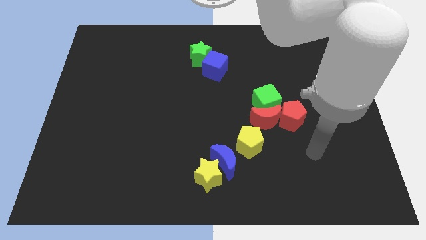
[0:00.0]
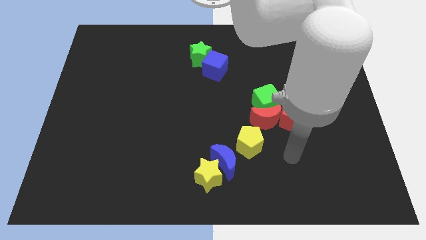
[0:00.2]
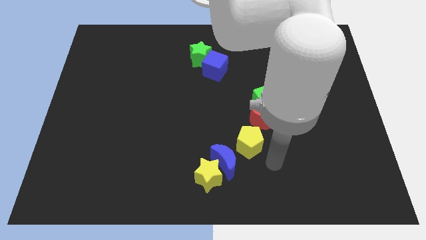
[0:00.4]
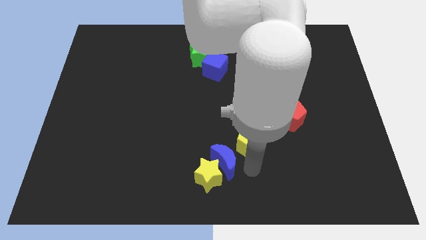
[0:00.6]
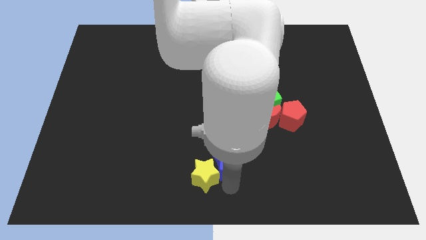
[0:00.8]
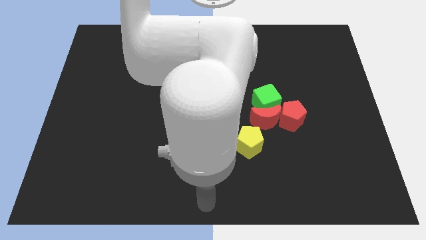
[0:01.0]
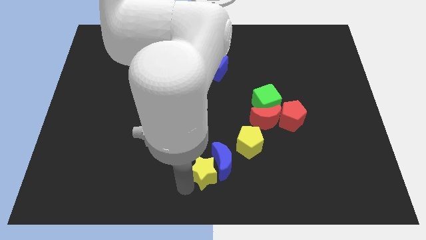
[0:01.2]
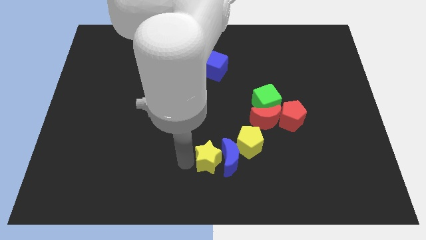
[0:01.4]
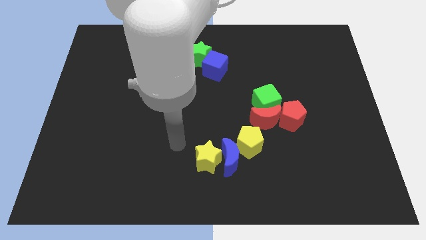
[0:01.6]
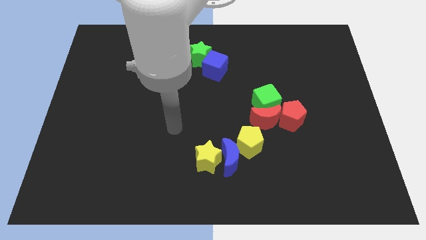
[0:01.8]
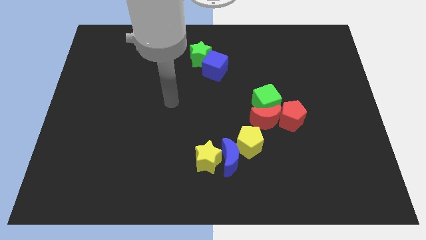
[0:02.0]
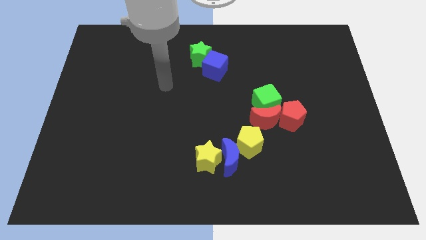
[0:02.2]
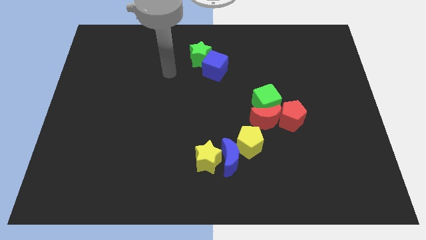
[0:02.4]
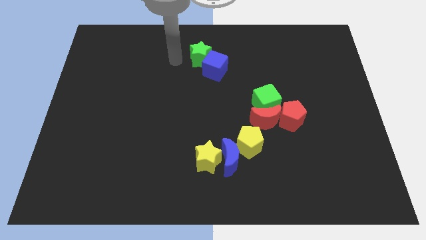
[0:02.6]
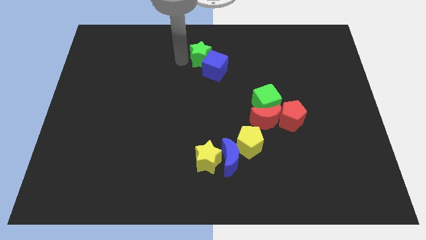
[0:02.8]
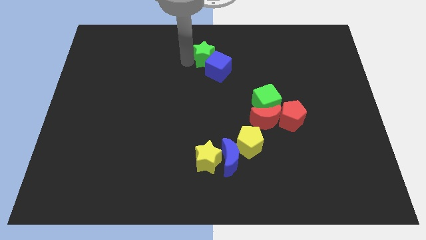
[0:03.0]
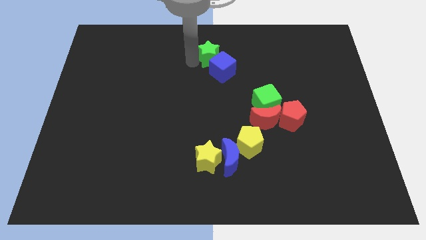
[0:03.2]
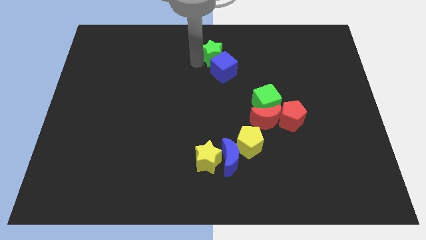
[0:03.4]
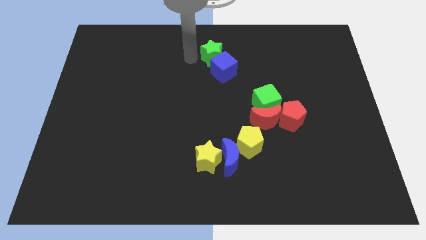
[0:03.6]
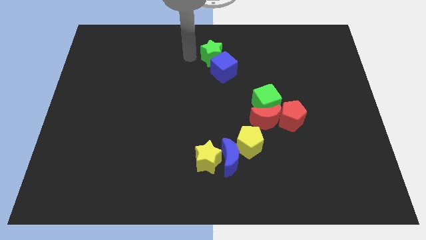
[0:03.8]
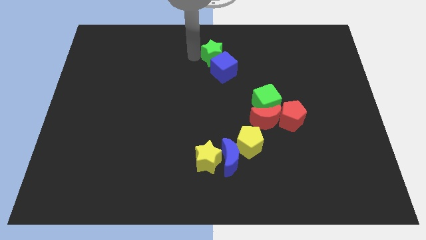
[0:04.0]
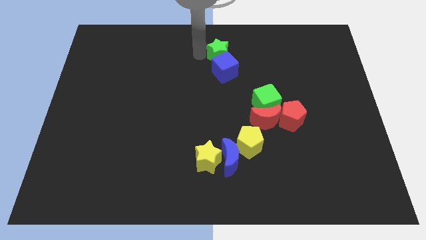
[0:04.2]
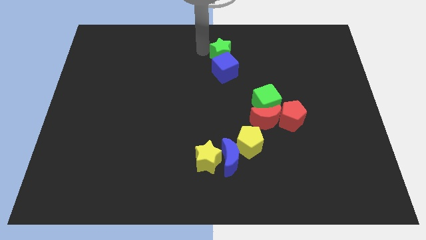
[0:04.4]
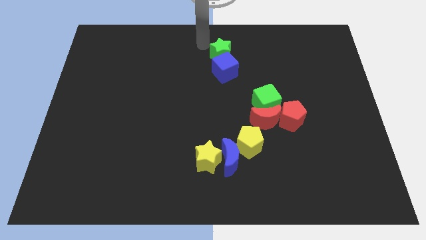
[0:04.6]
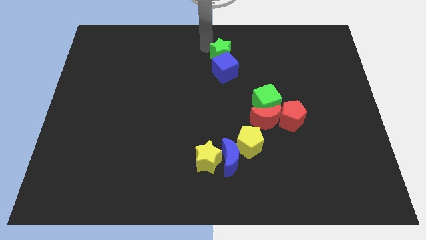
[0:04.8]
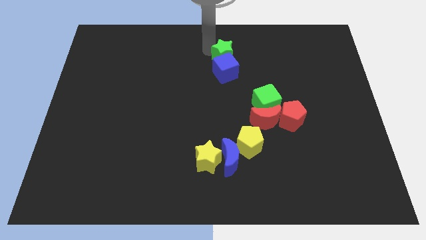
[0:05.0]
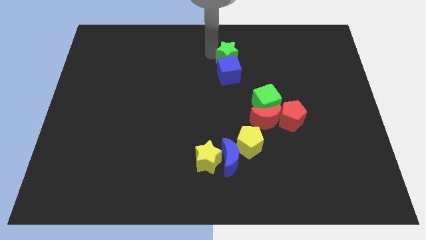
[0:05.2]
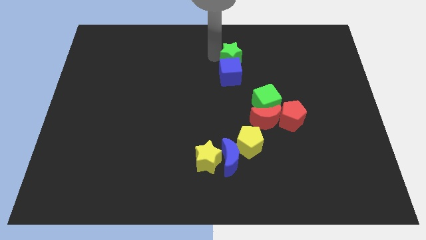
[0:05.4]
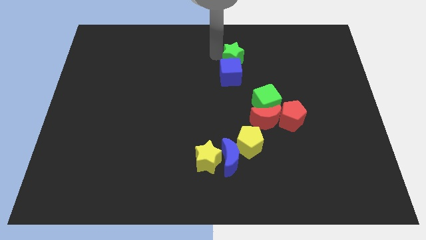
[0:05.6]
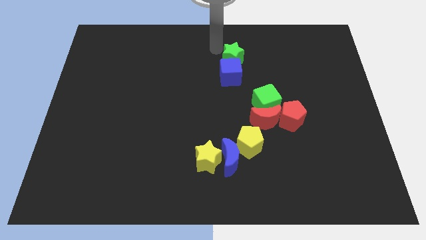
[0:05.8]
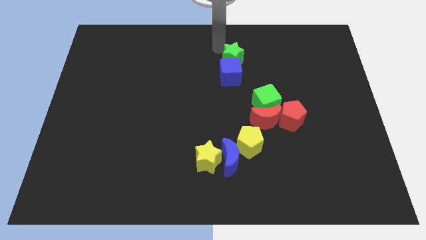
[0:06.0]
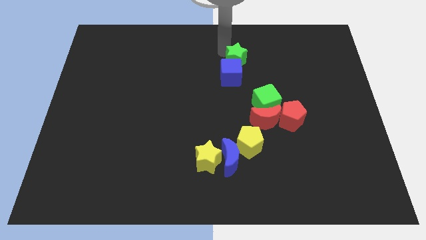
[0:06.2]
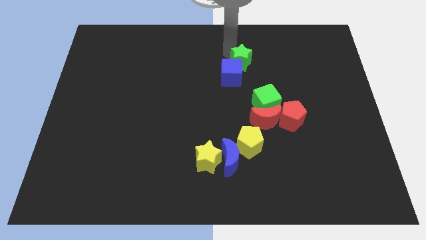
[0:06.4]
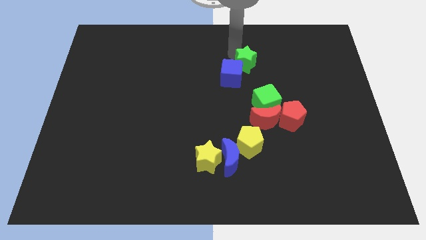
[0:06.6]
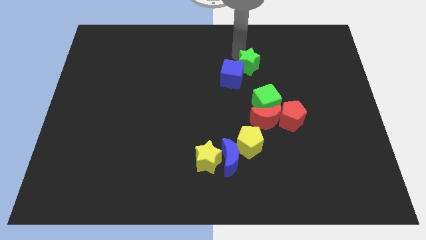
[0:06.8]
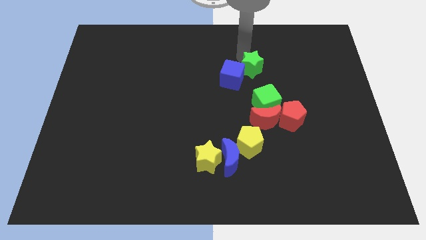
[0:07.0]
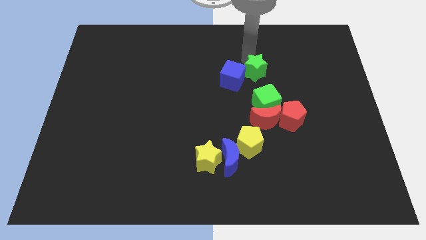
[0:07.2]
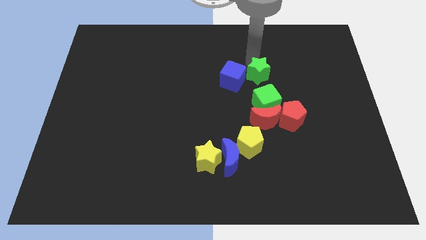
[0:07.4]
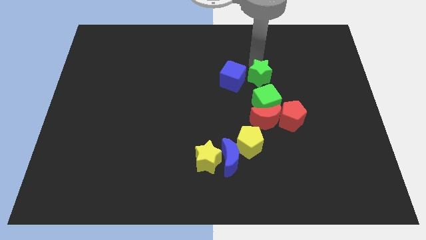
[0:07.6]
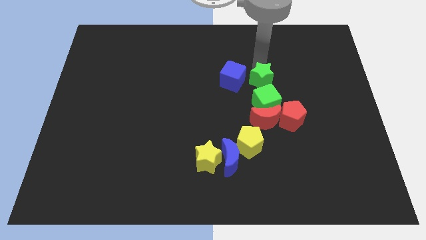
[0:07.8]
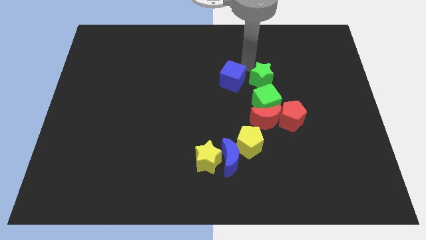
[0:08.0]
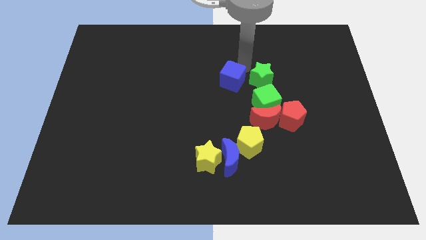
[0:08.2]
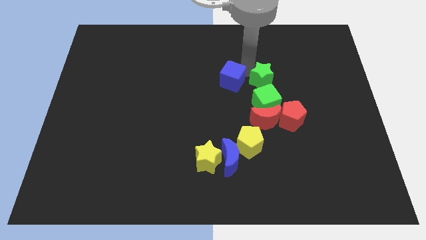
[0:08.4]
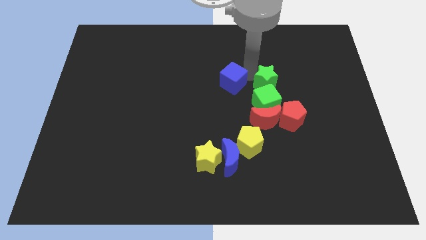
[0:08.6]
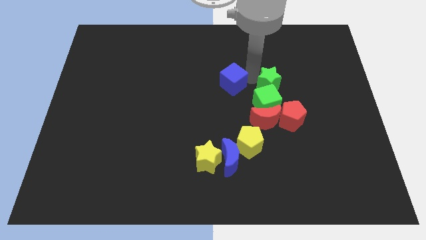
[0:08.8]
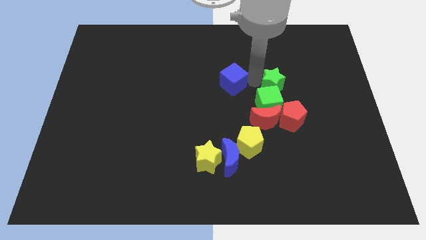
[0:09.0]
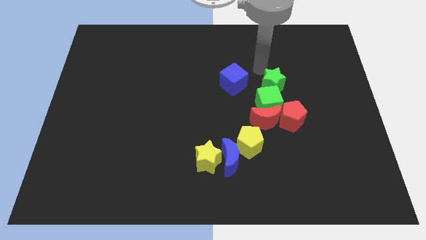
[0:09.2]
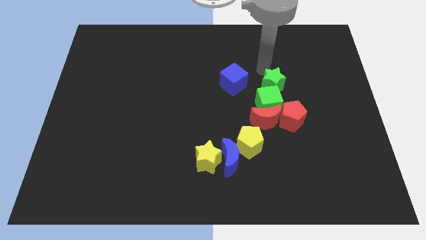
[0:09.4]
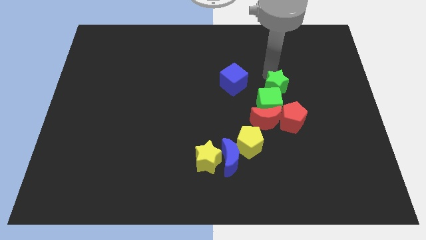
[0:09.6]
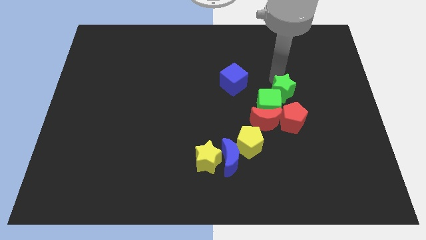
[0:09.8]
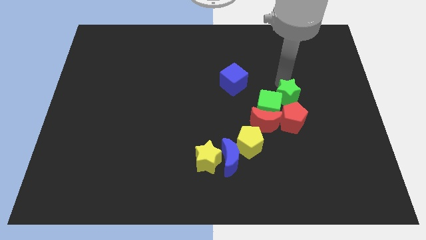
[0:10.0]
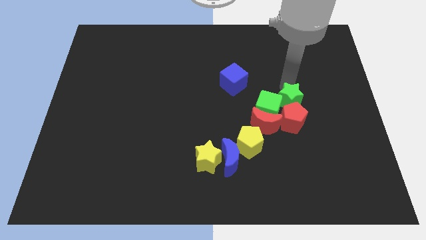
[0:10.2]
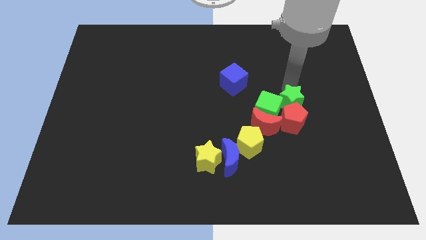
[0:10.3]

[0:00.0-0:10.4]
put the green star next to the red pentagon

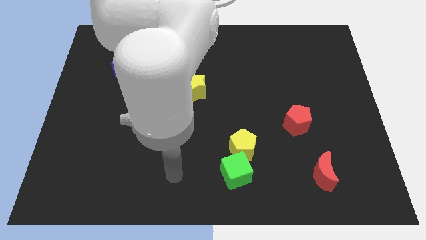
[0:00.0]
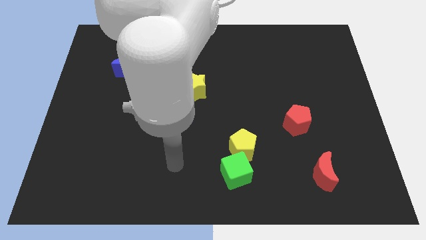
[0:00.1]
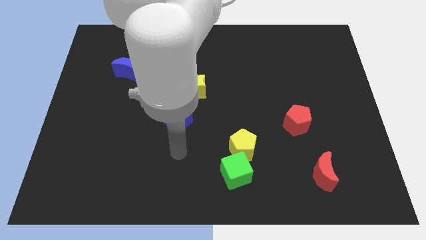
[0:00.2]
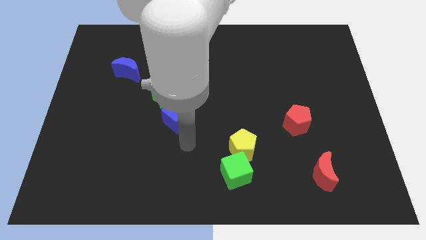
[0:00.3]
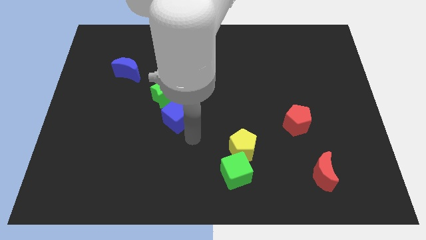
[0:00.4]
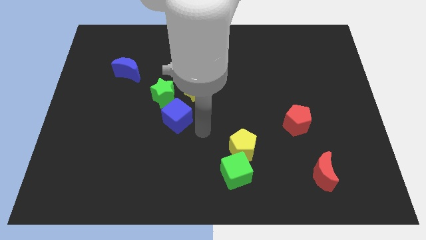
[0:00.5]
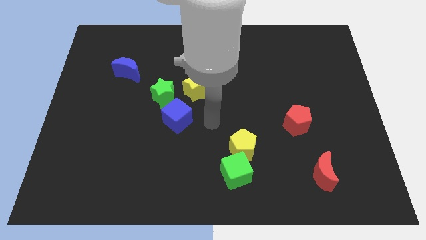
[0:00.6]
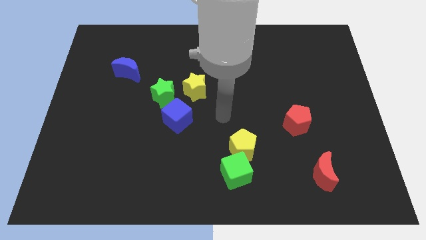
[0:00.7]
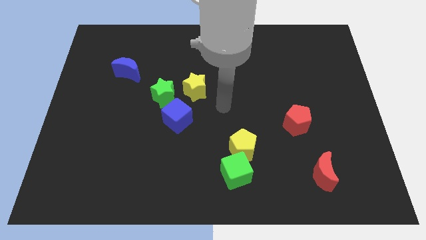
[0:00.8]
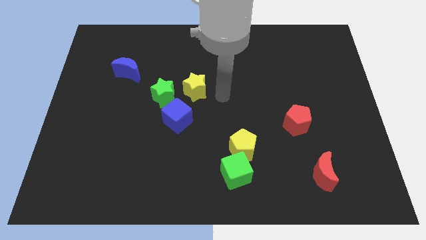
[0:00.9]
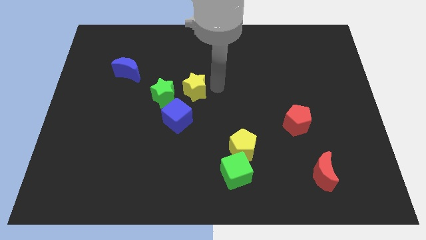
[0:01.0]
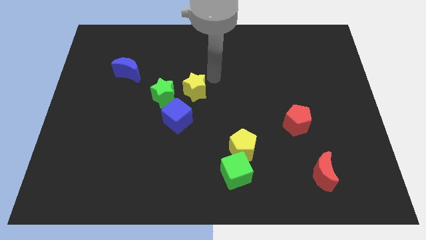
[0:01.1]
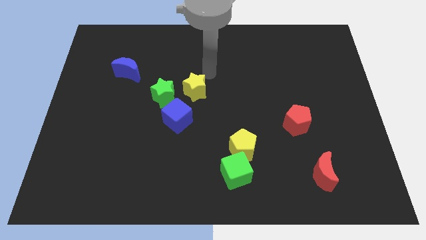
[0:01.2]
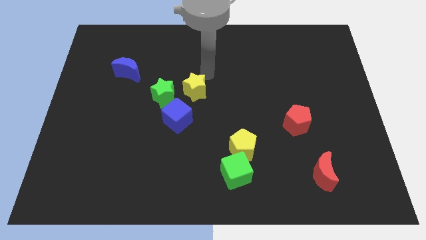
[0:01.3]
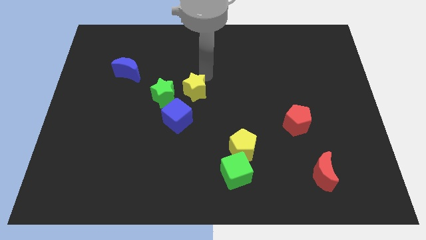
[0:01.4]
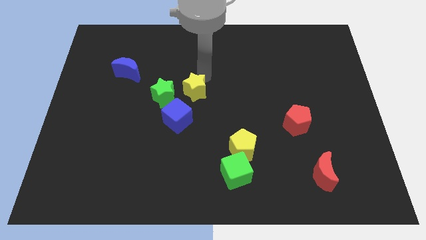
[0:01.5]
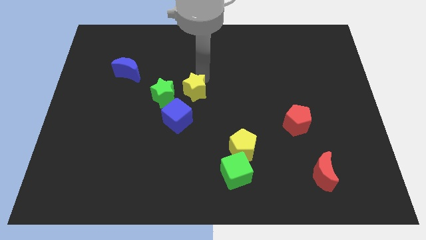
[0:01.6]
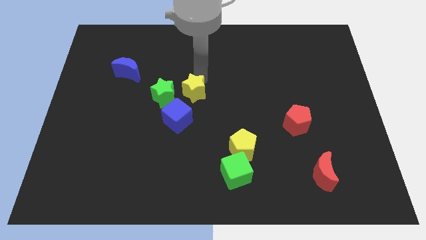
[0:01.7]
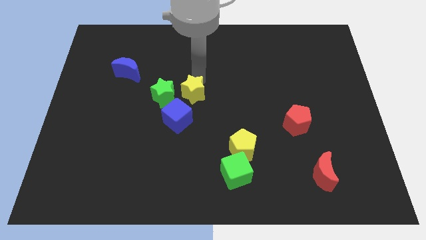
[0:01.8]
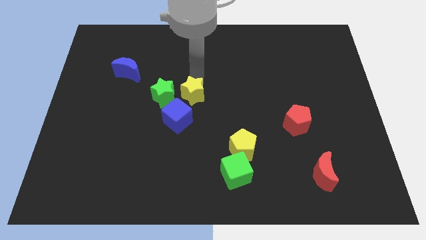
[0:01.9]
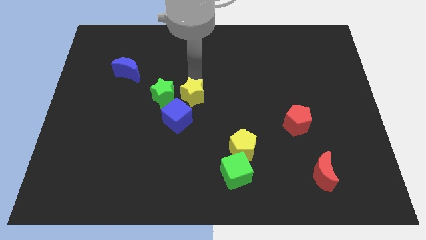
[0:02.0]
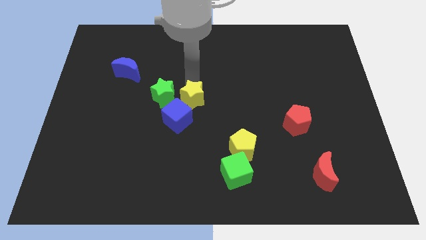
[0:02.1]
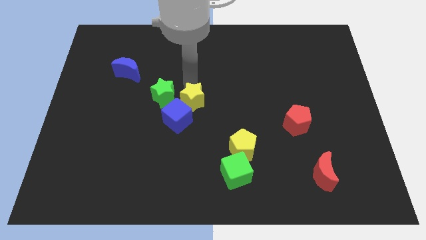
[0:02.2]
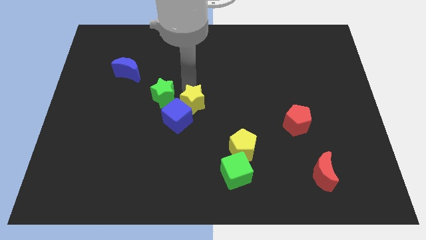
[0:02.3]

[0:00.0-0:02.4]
push the yellow star close to the blue cube
